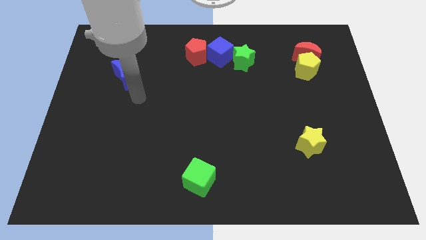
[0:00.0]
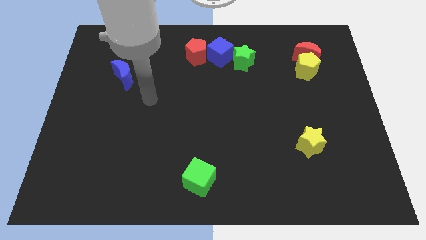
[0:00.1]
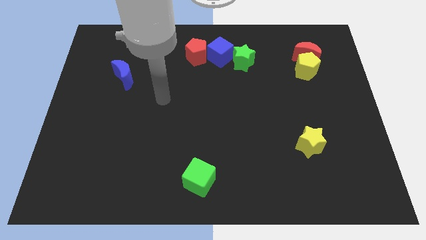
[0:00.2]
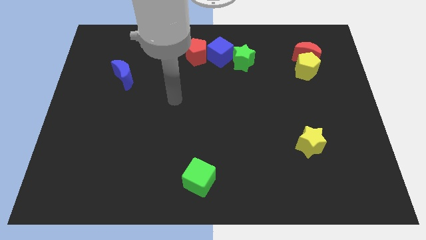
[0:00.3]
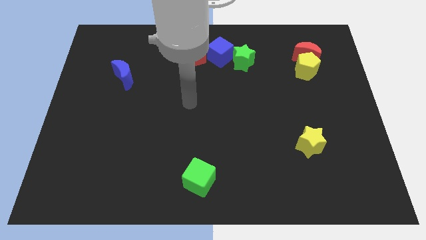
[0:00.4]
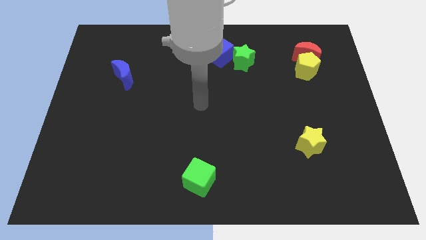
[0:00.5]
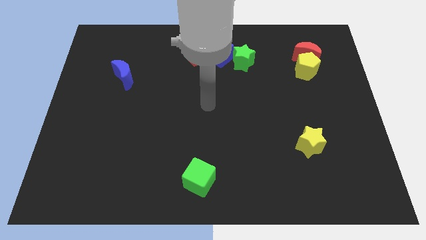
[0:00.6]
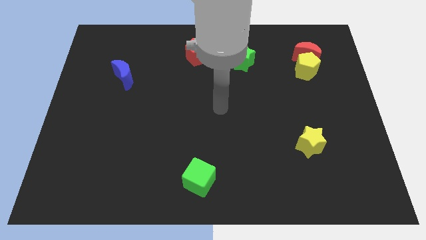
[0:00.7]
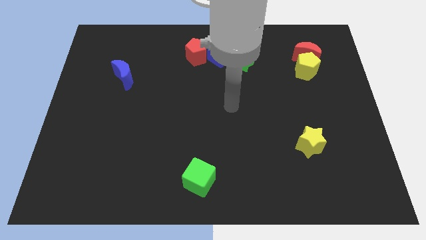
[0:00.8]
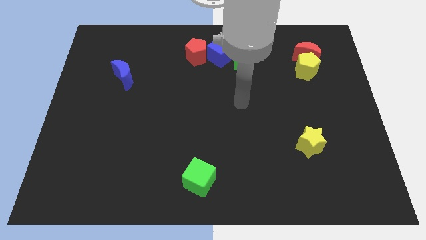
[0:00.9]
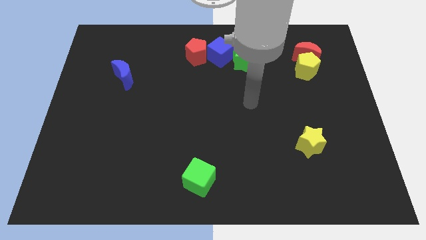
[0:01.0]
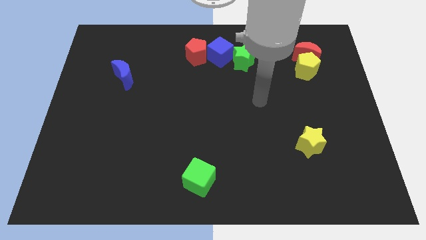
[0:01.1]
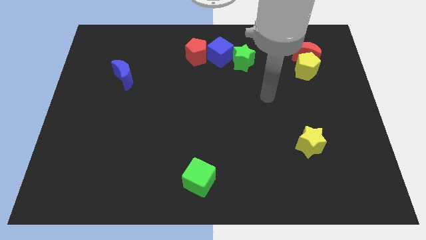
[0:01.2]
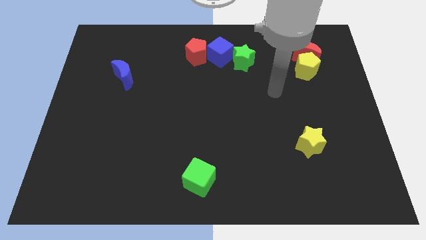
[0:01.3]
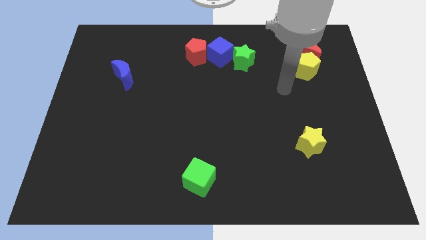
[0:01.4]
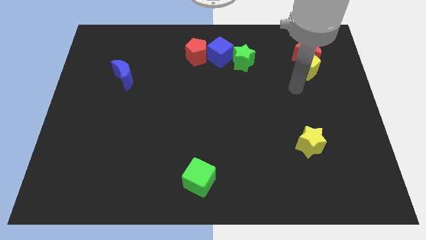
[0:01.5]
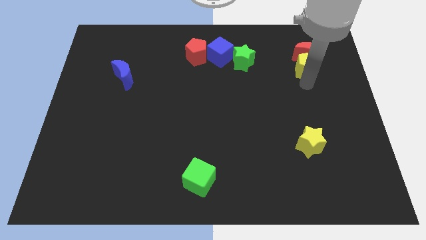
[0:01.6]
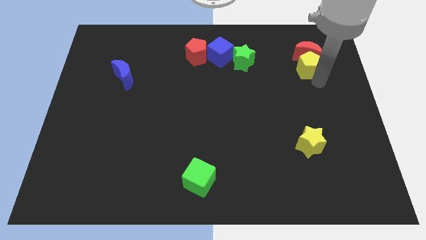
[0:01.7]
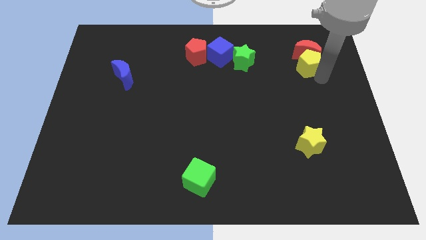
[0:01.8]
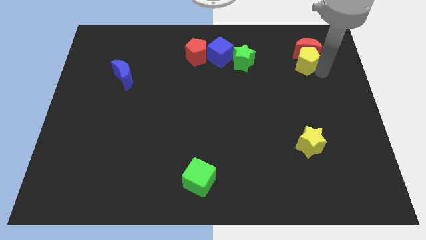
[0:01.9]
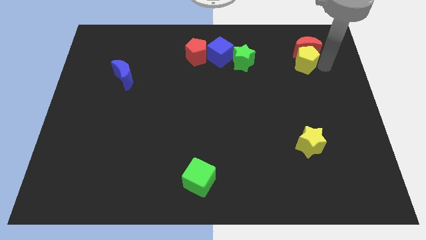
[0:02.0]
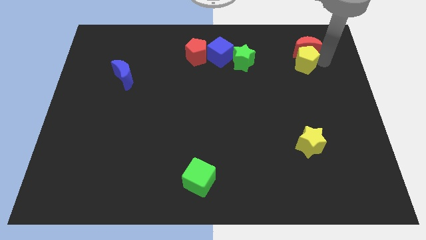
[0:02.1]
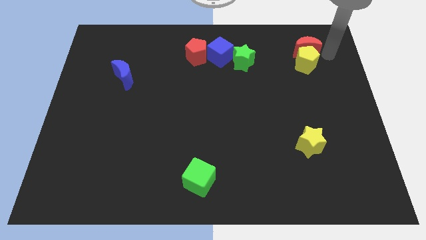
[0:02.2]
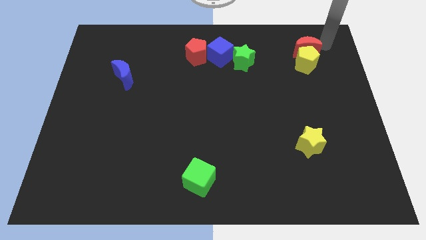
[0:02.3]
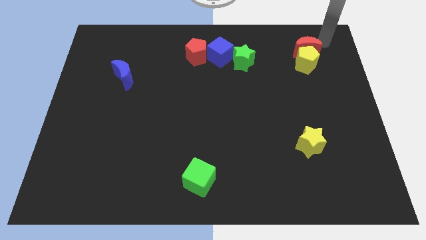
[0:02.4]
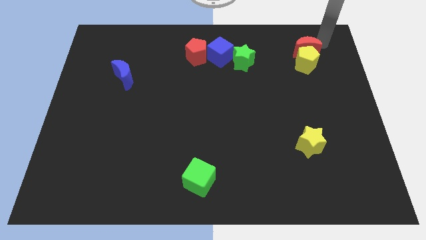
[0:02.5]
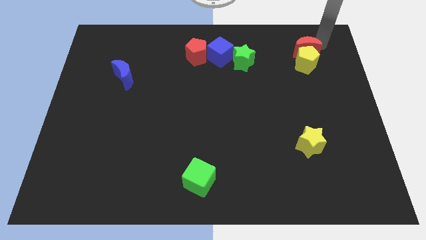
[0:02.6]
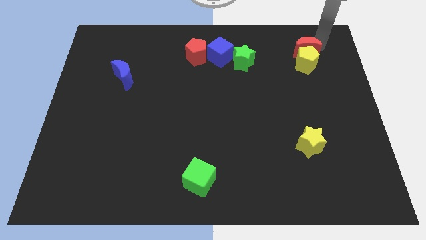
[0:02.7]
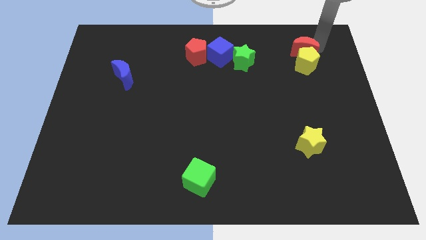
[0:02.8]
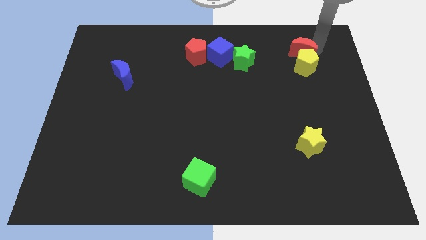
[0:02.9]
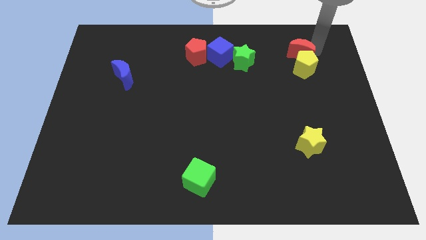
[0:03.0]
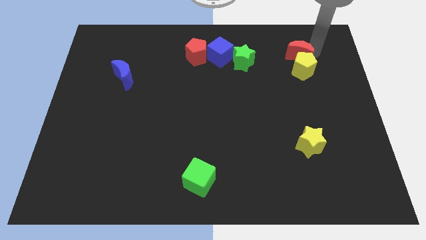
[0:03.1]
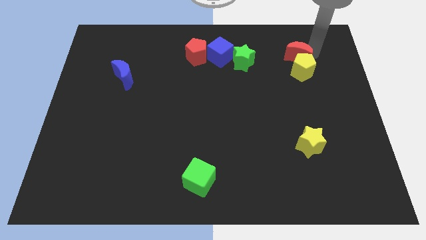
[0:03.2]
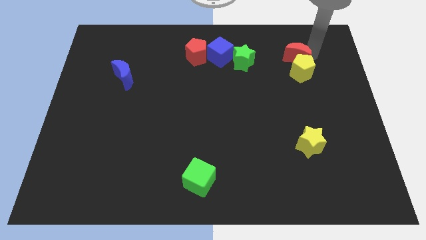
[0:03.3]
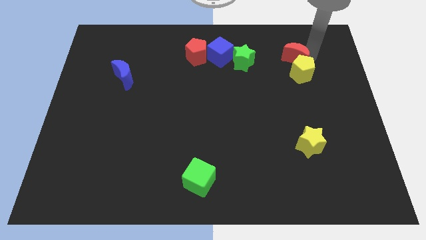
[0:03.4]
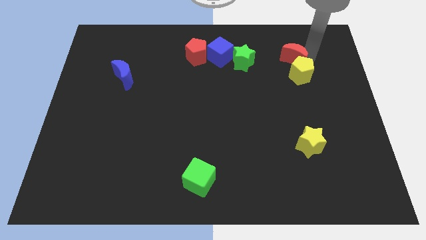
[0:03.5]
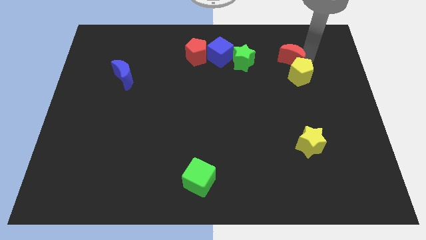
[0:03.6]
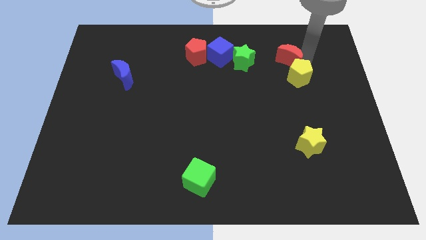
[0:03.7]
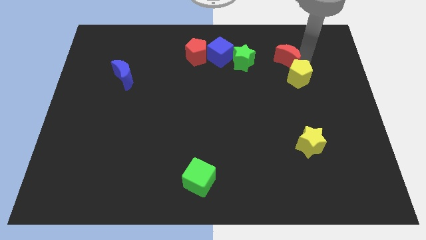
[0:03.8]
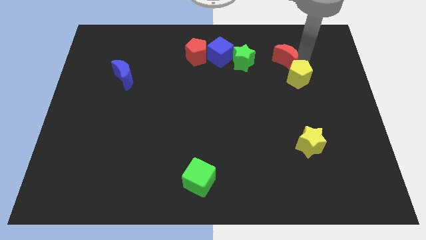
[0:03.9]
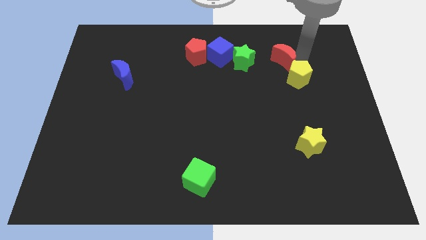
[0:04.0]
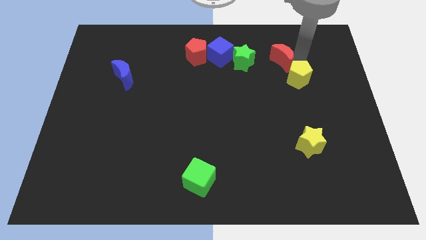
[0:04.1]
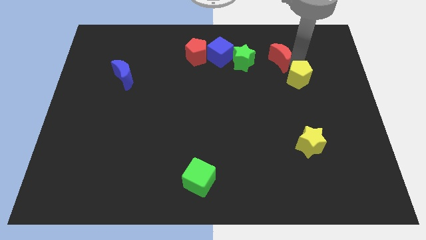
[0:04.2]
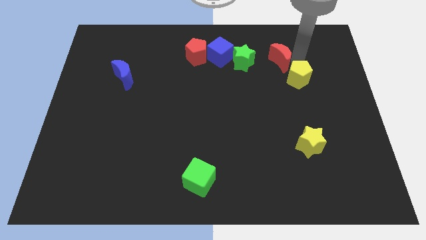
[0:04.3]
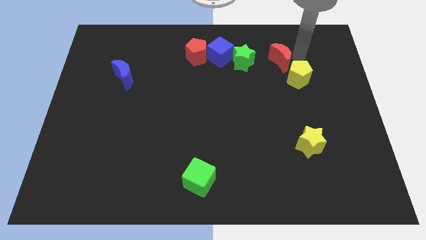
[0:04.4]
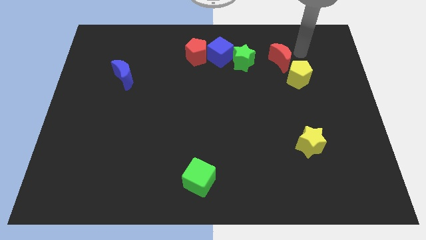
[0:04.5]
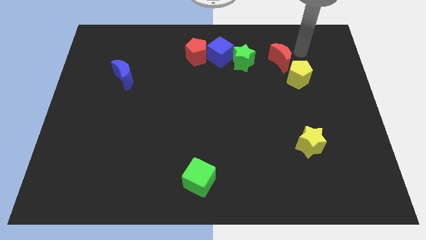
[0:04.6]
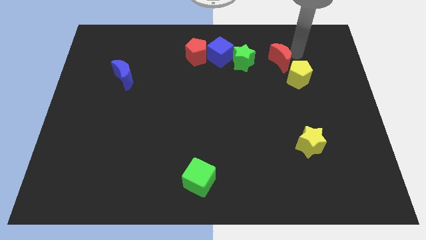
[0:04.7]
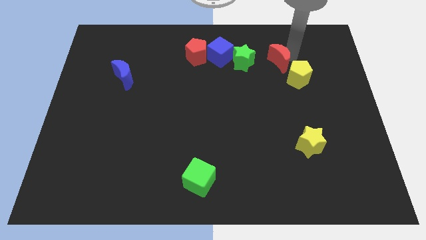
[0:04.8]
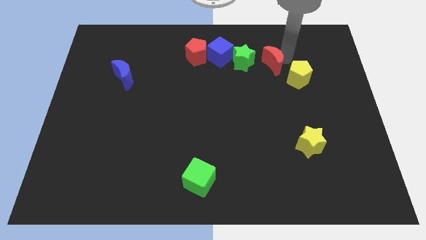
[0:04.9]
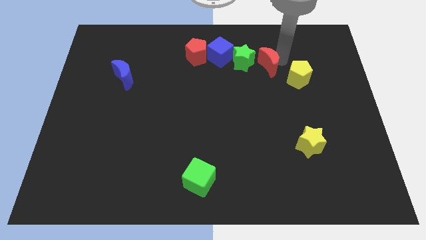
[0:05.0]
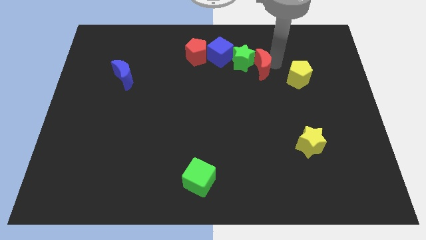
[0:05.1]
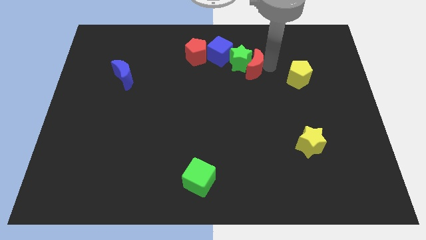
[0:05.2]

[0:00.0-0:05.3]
put the red moon to the bottom right side of the blue cube

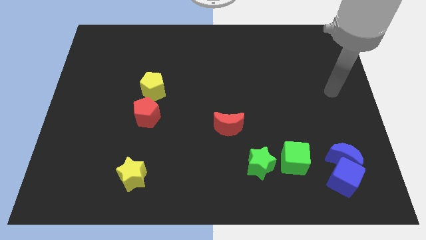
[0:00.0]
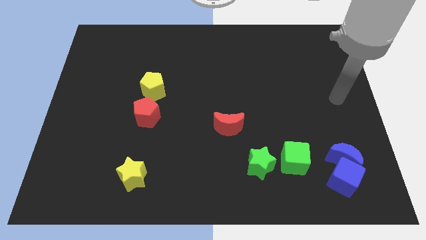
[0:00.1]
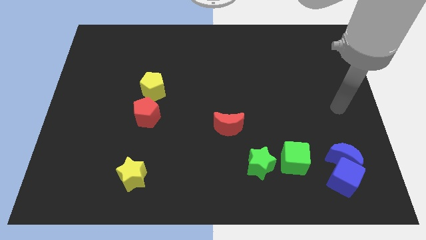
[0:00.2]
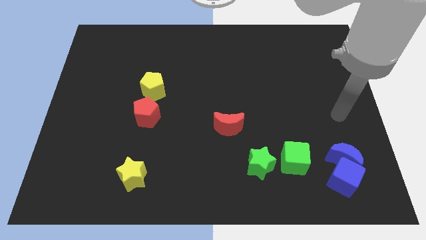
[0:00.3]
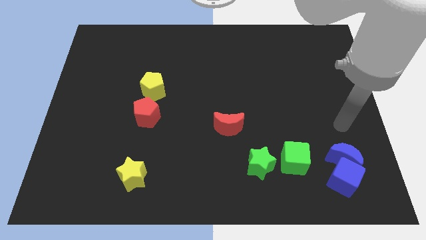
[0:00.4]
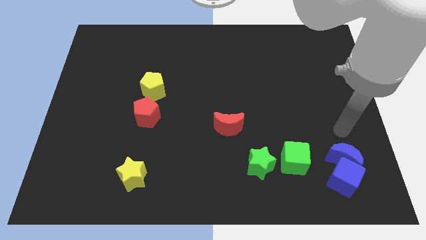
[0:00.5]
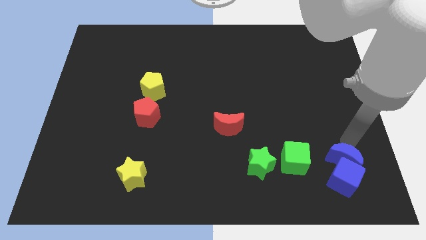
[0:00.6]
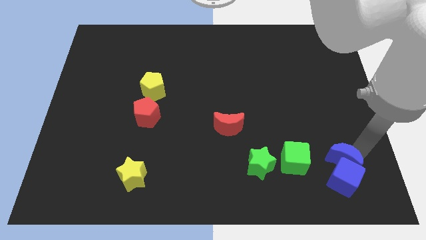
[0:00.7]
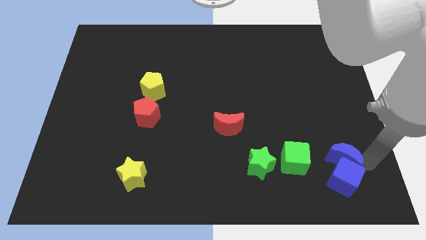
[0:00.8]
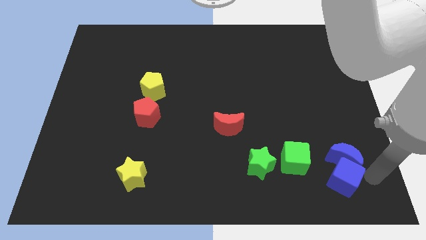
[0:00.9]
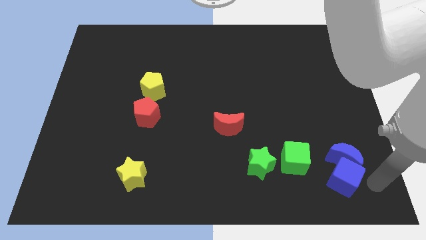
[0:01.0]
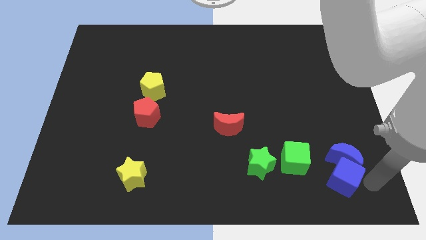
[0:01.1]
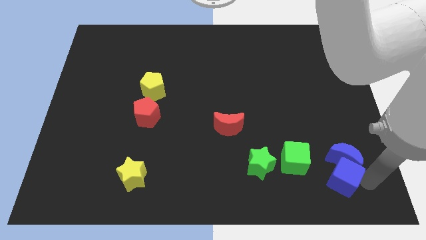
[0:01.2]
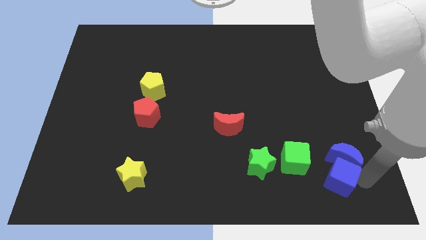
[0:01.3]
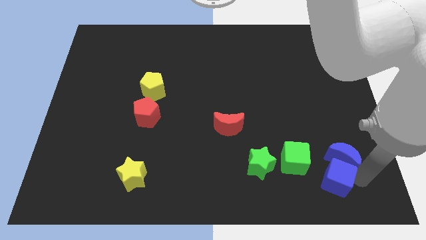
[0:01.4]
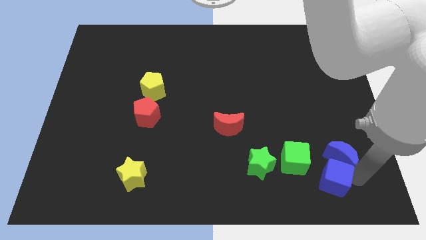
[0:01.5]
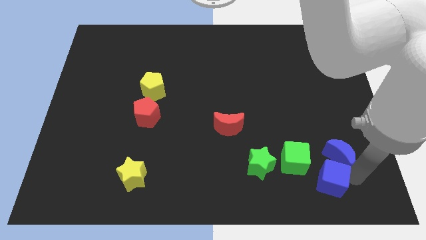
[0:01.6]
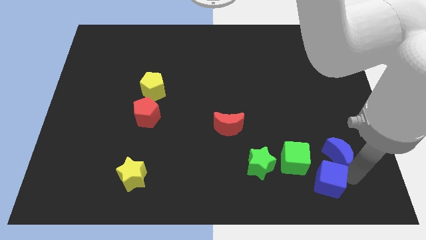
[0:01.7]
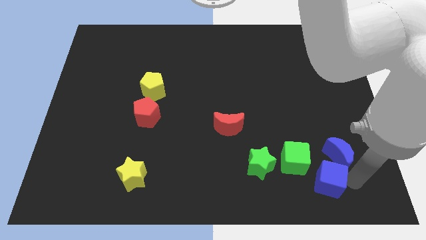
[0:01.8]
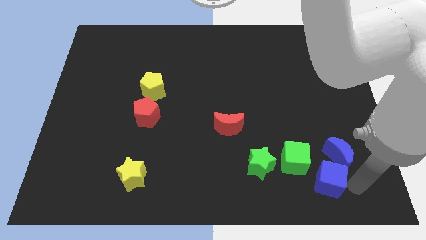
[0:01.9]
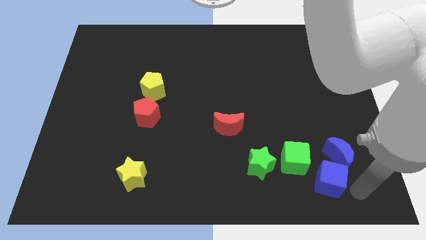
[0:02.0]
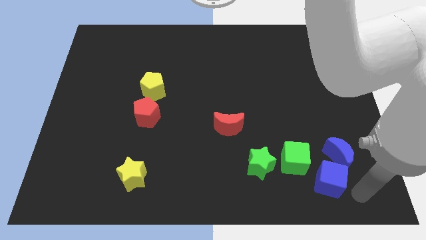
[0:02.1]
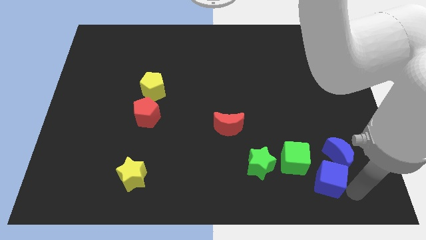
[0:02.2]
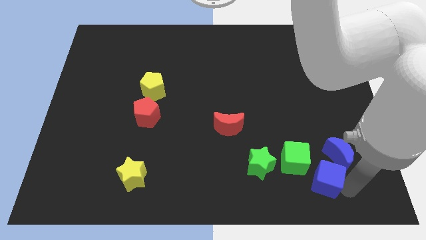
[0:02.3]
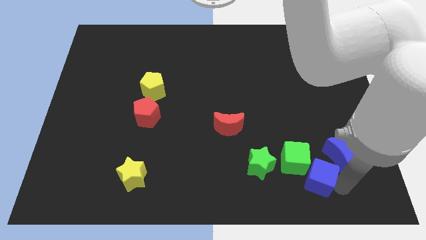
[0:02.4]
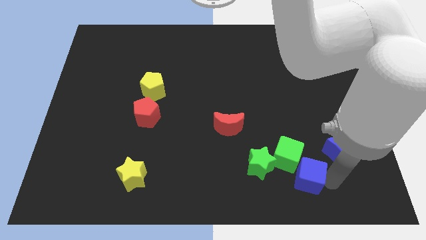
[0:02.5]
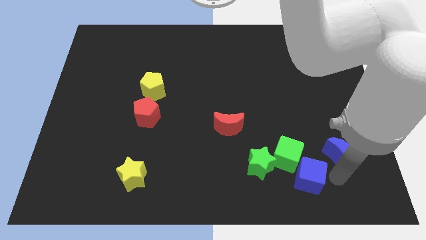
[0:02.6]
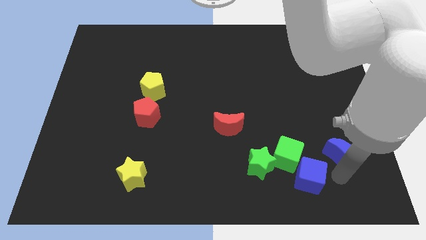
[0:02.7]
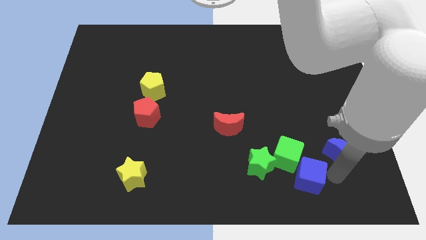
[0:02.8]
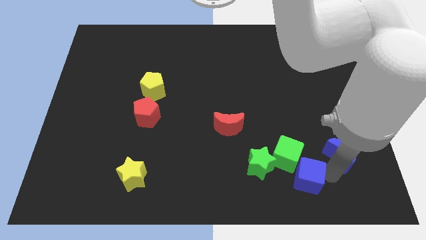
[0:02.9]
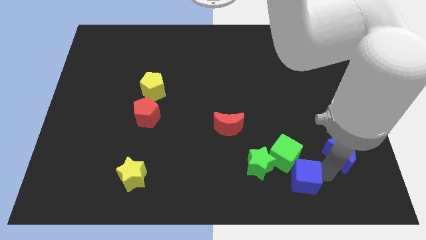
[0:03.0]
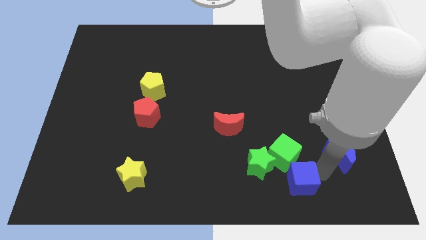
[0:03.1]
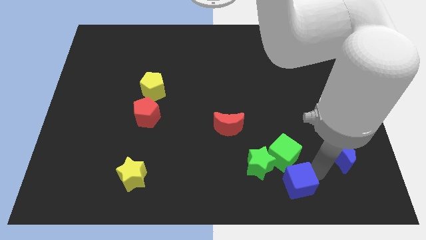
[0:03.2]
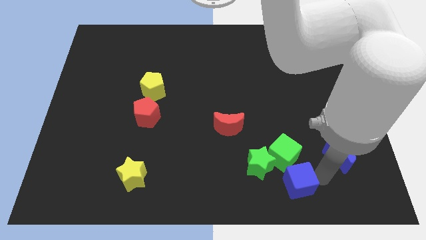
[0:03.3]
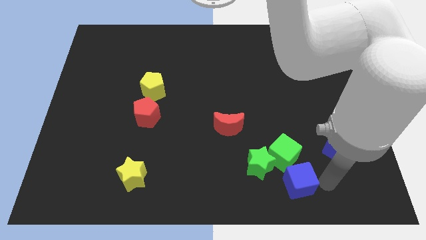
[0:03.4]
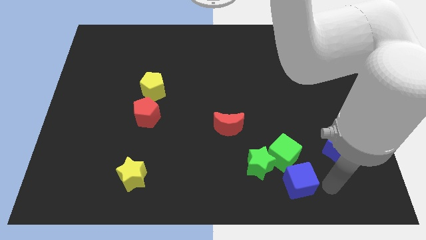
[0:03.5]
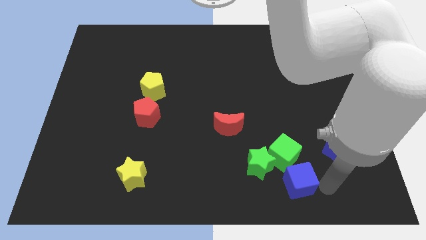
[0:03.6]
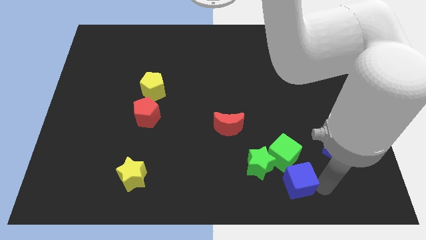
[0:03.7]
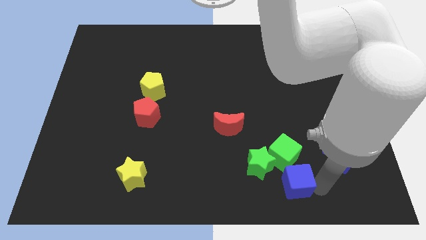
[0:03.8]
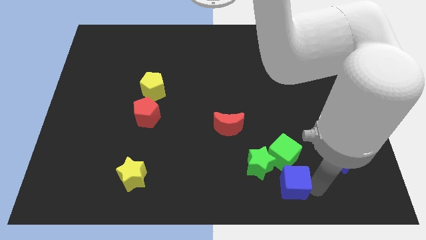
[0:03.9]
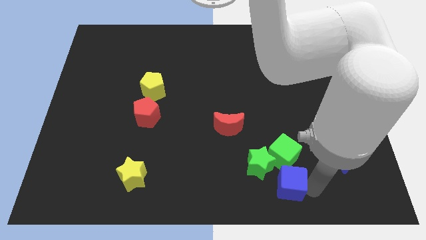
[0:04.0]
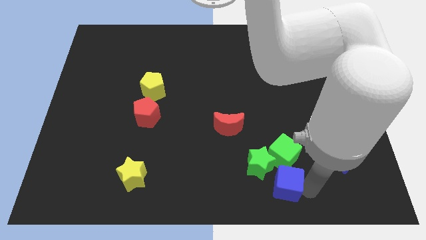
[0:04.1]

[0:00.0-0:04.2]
push the blue cube to the bottom left of the green cube
